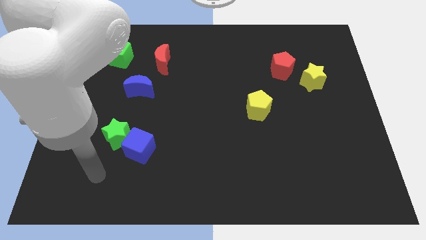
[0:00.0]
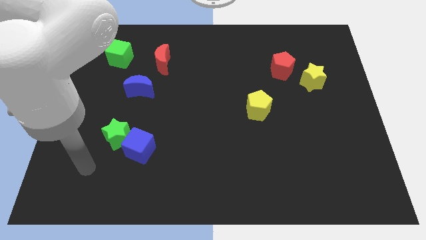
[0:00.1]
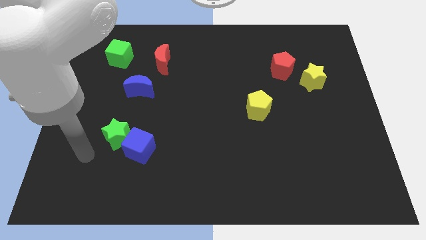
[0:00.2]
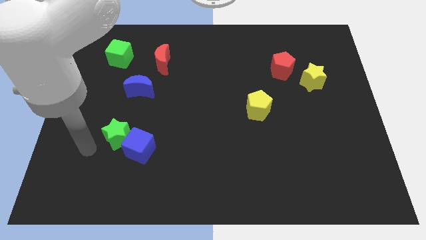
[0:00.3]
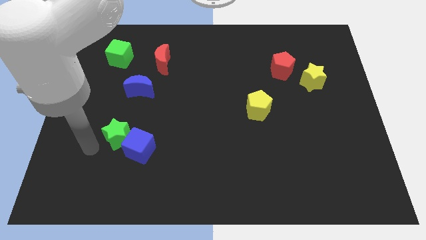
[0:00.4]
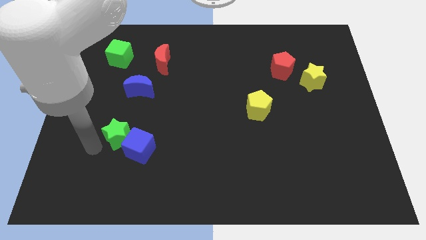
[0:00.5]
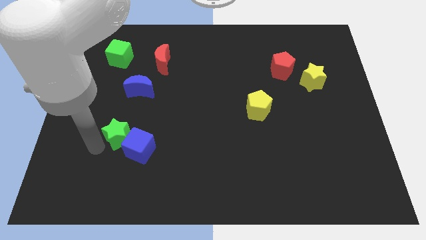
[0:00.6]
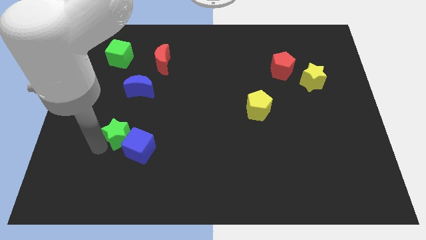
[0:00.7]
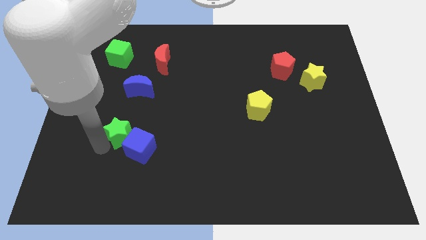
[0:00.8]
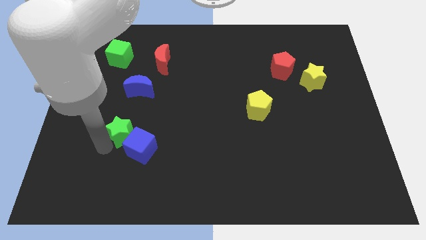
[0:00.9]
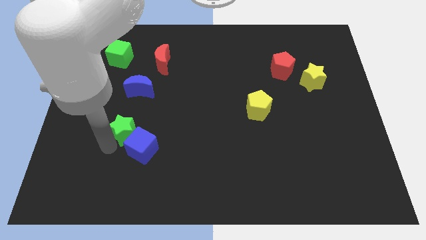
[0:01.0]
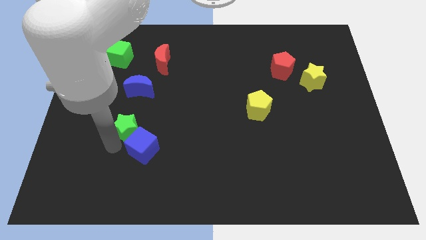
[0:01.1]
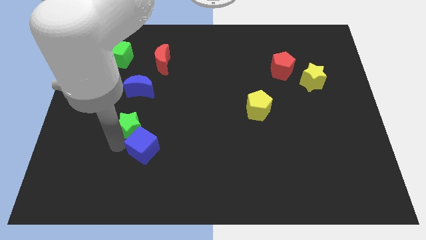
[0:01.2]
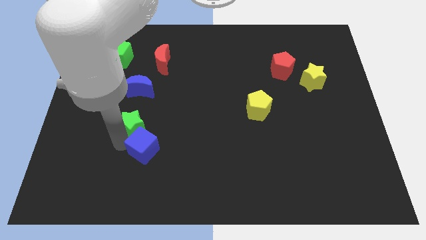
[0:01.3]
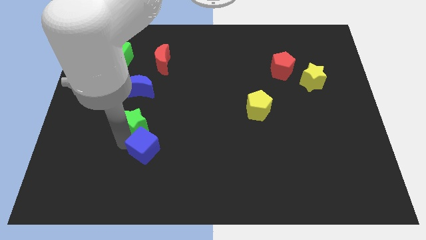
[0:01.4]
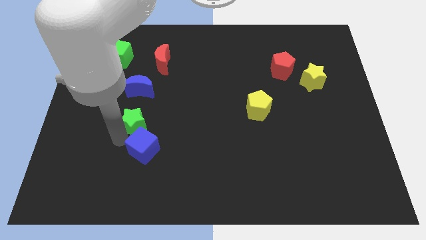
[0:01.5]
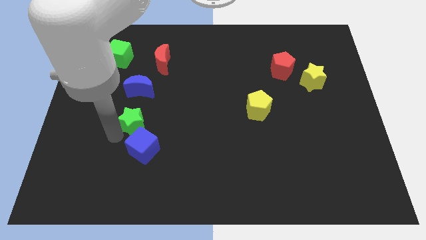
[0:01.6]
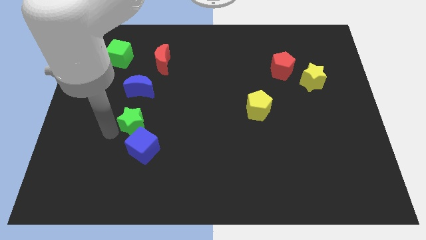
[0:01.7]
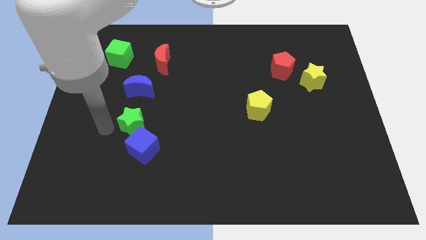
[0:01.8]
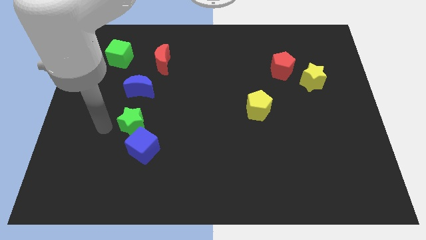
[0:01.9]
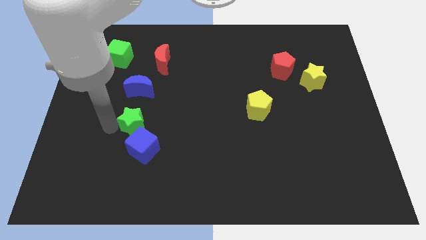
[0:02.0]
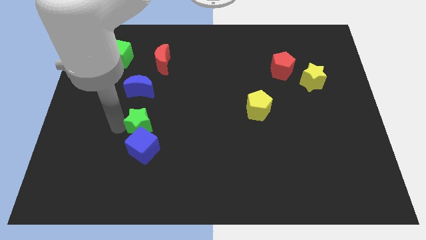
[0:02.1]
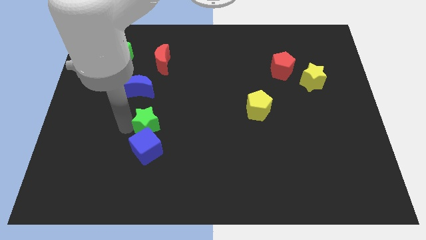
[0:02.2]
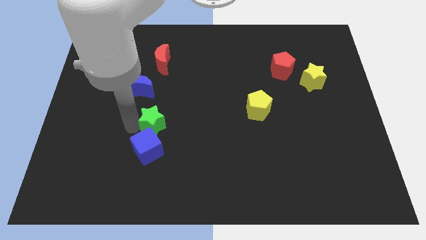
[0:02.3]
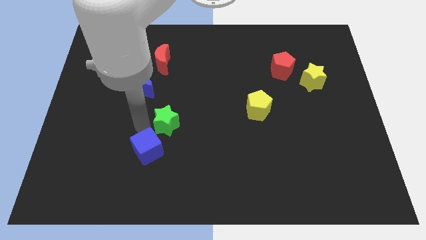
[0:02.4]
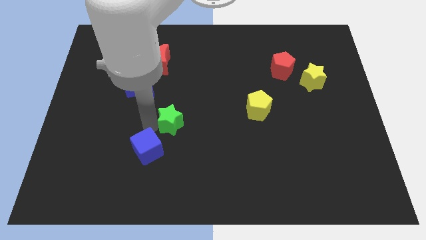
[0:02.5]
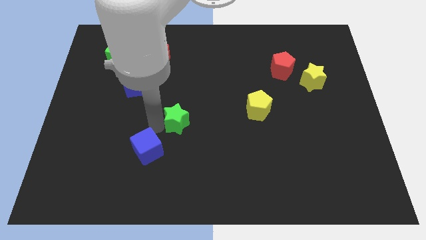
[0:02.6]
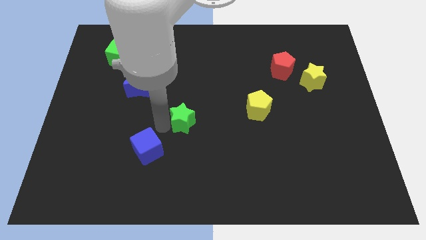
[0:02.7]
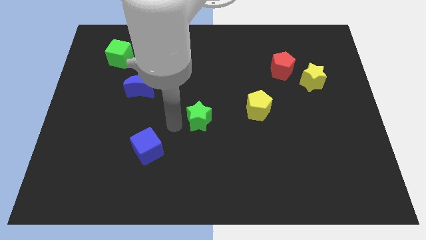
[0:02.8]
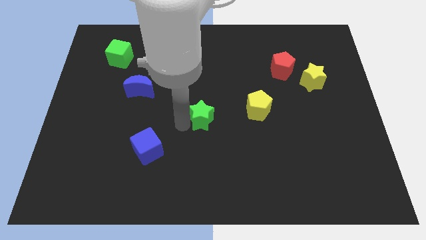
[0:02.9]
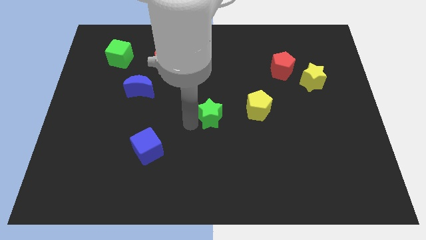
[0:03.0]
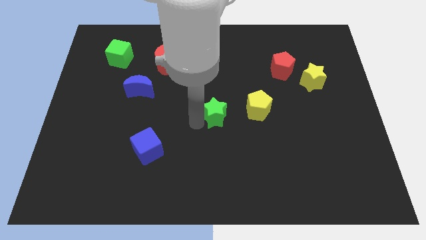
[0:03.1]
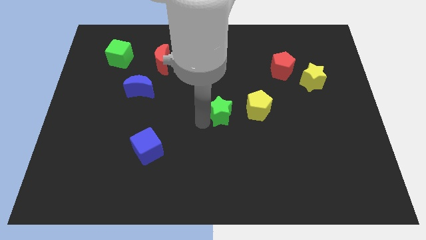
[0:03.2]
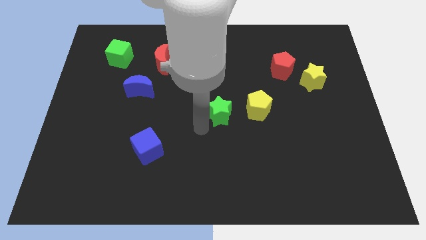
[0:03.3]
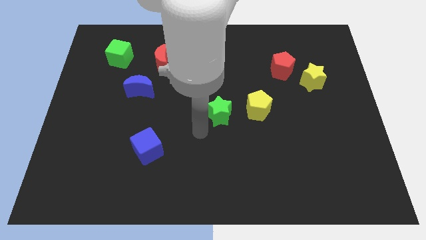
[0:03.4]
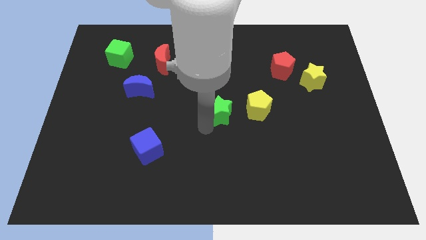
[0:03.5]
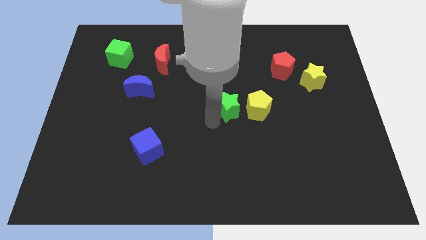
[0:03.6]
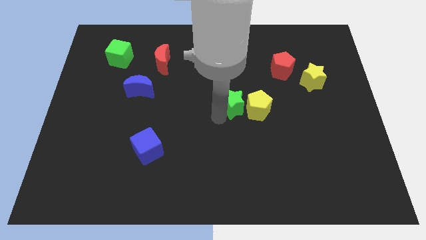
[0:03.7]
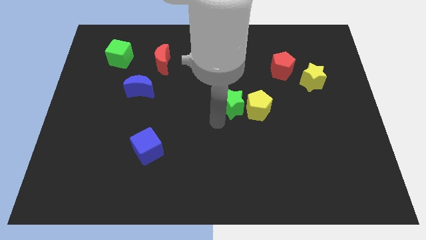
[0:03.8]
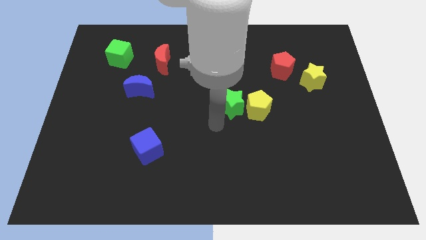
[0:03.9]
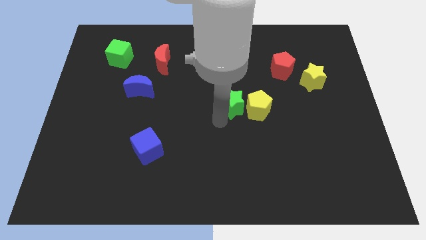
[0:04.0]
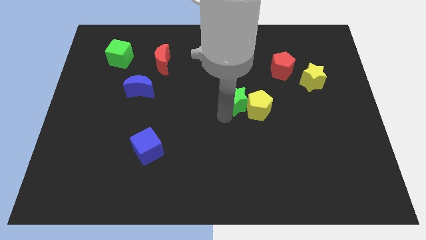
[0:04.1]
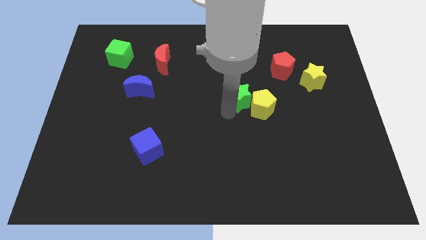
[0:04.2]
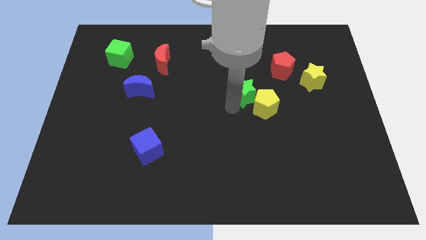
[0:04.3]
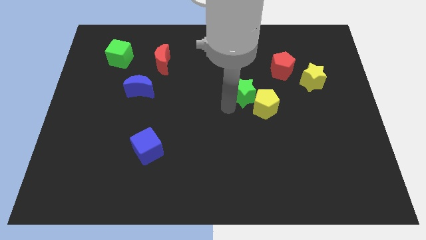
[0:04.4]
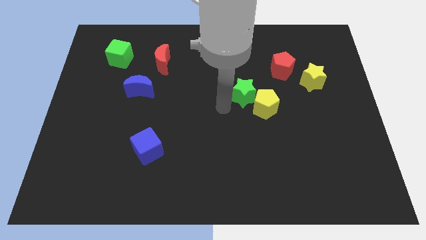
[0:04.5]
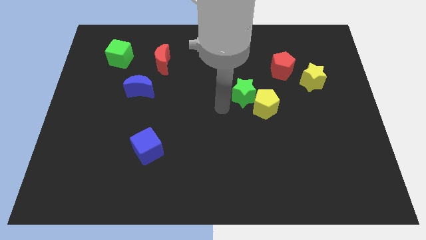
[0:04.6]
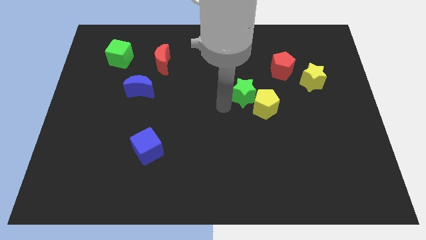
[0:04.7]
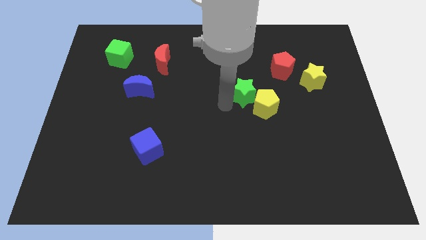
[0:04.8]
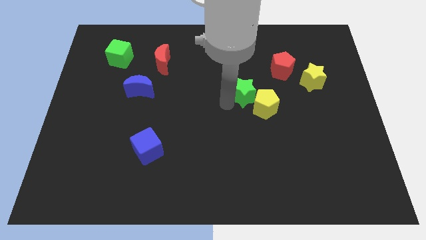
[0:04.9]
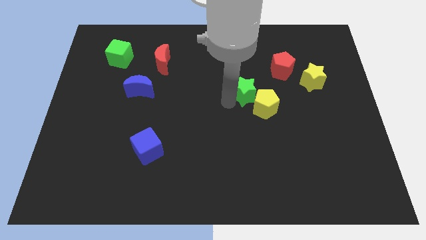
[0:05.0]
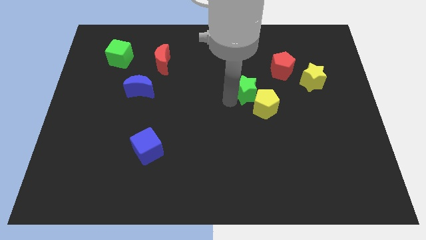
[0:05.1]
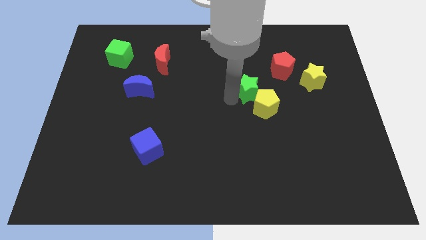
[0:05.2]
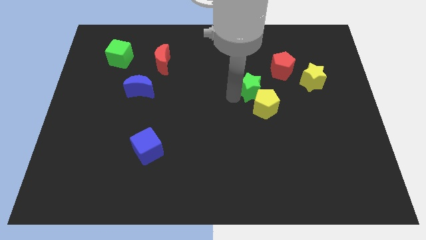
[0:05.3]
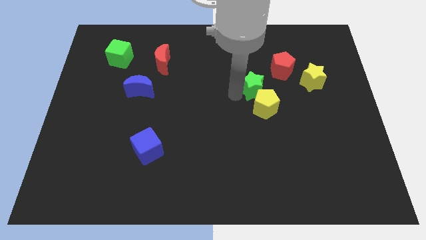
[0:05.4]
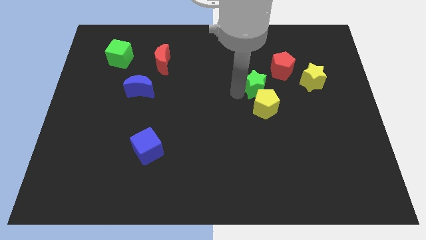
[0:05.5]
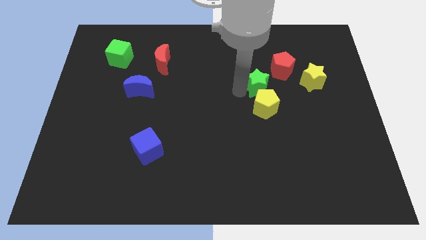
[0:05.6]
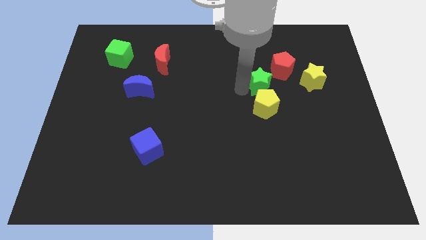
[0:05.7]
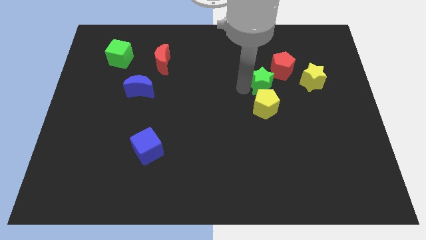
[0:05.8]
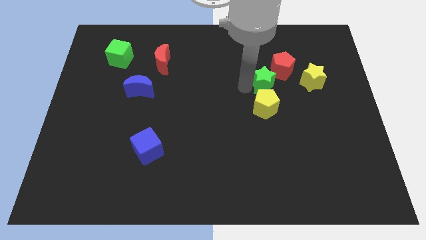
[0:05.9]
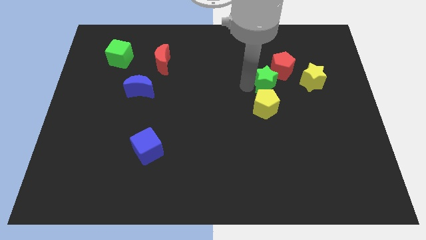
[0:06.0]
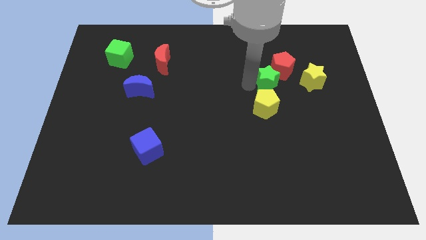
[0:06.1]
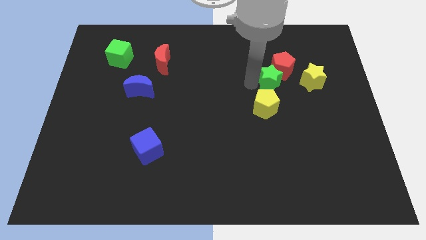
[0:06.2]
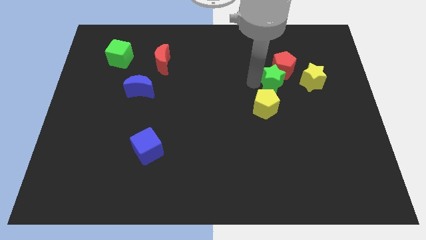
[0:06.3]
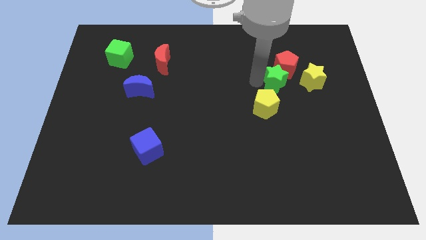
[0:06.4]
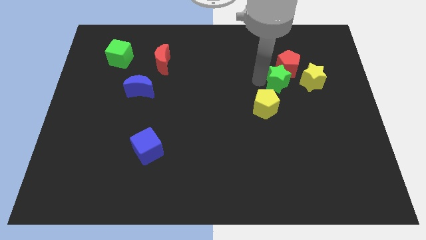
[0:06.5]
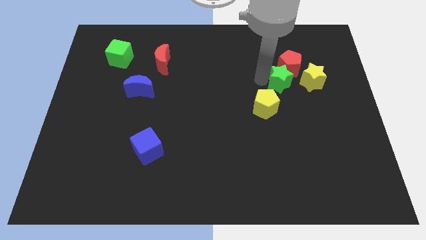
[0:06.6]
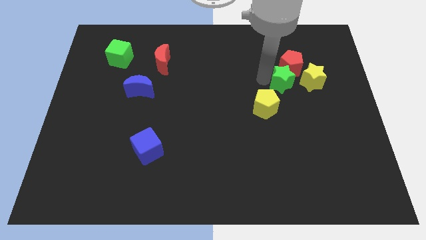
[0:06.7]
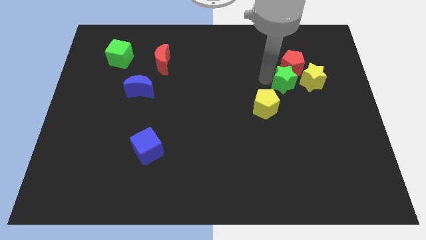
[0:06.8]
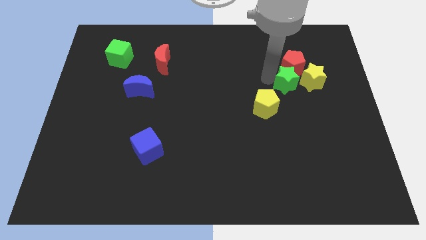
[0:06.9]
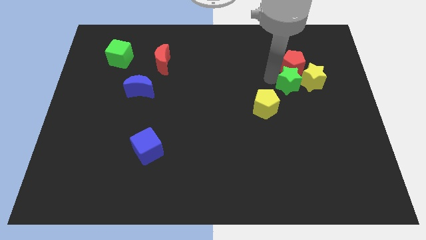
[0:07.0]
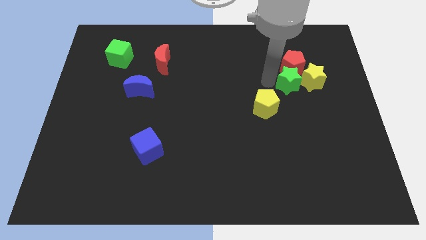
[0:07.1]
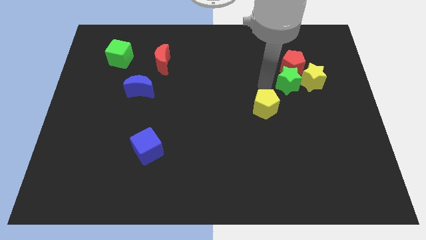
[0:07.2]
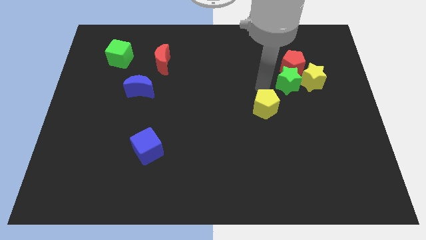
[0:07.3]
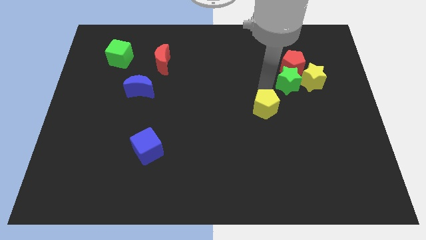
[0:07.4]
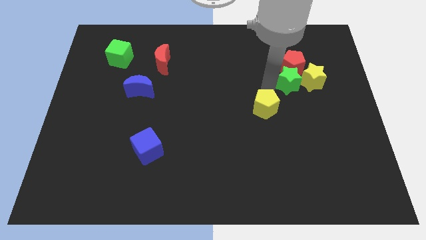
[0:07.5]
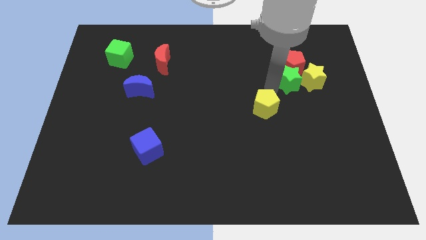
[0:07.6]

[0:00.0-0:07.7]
push the green star next to the yellow star
